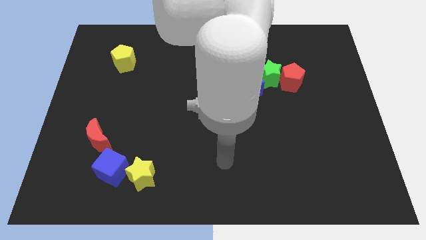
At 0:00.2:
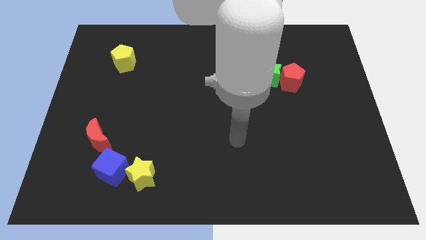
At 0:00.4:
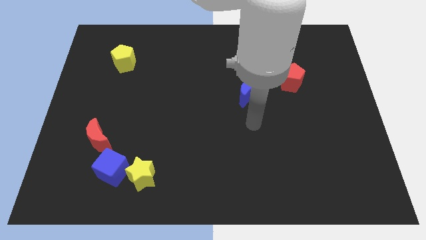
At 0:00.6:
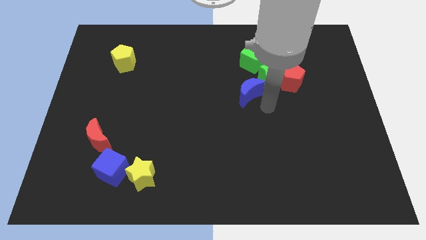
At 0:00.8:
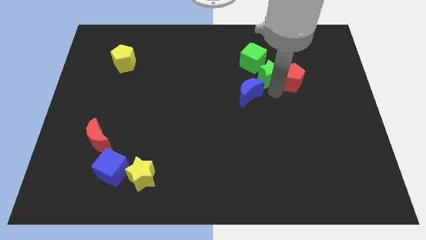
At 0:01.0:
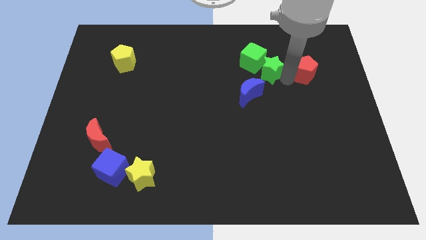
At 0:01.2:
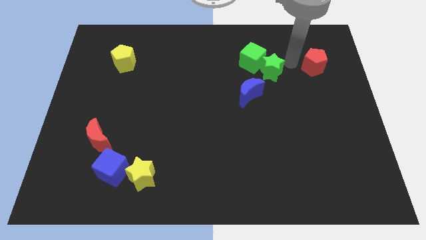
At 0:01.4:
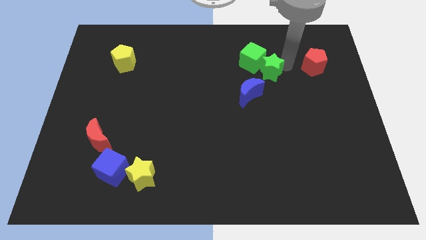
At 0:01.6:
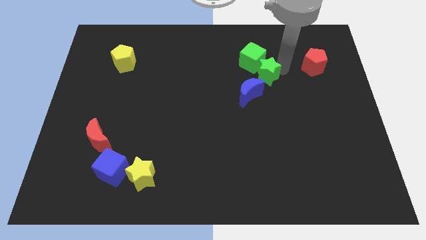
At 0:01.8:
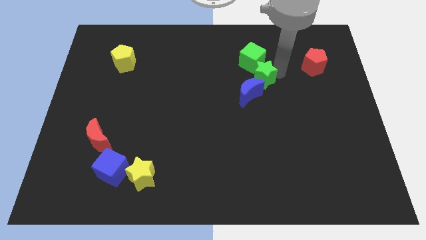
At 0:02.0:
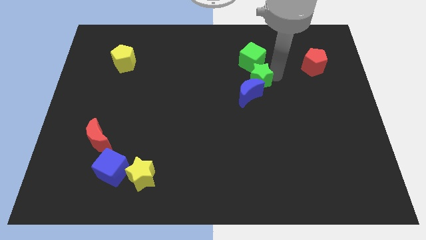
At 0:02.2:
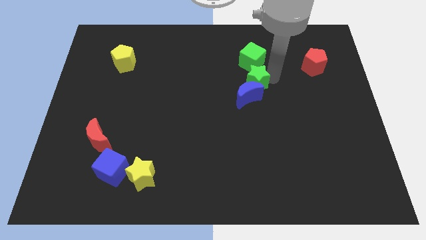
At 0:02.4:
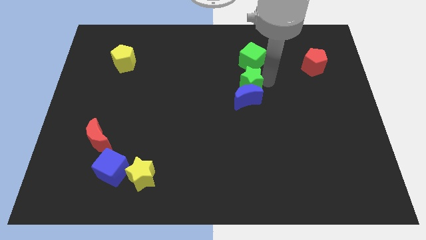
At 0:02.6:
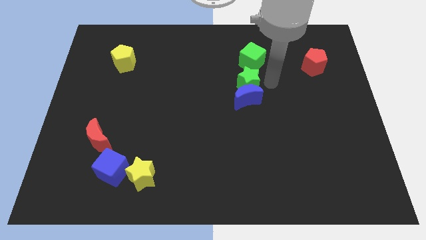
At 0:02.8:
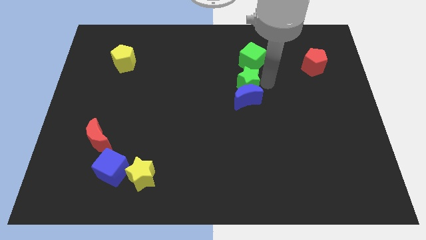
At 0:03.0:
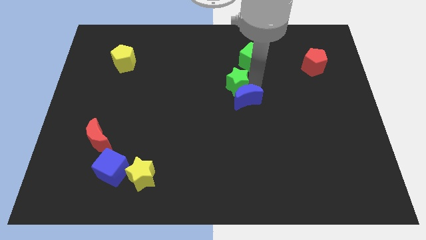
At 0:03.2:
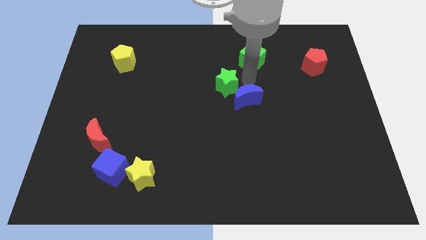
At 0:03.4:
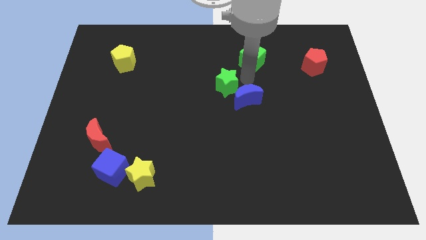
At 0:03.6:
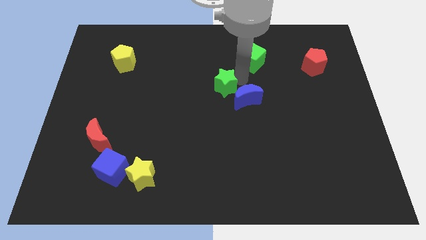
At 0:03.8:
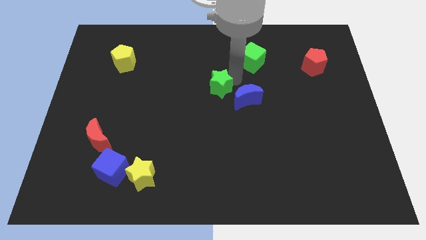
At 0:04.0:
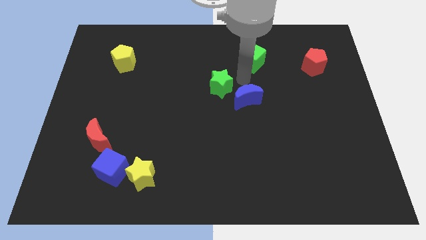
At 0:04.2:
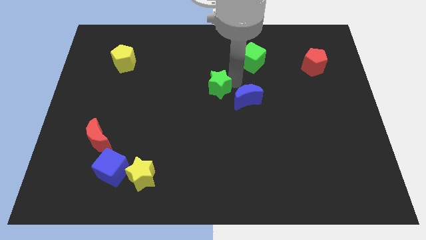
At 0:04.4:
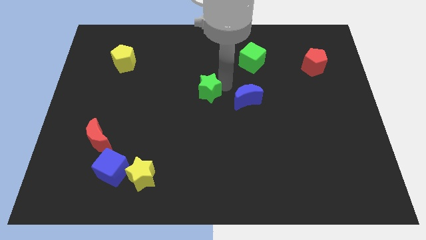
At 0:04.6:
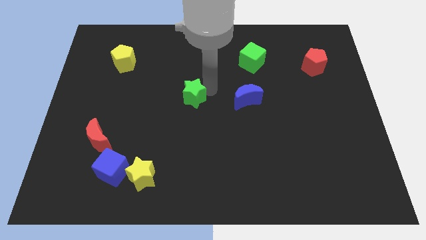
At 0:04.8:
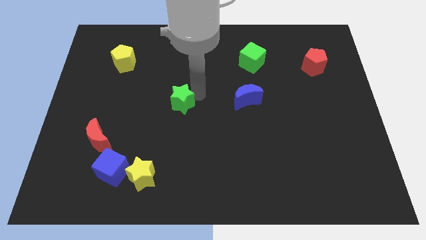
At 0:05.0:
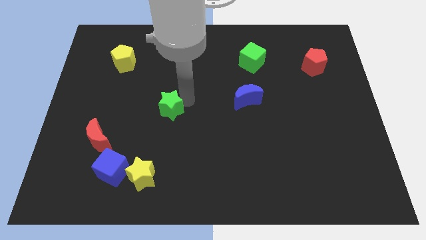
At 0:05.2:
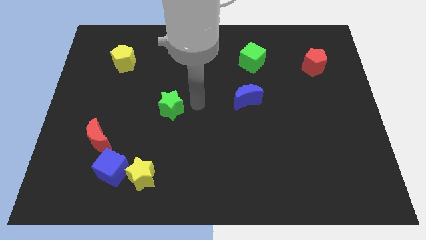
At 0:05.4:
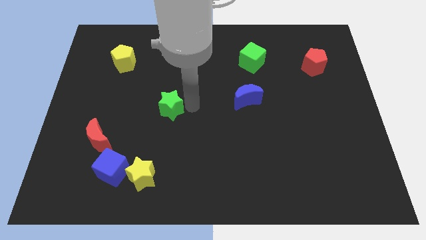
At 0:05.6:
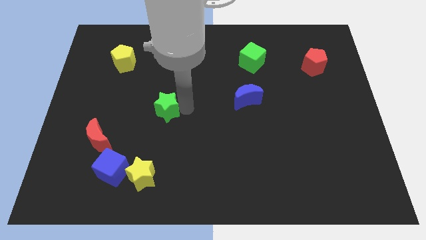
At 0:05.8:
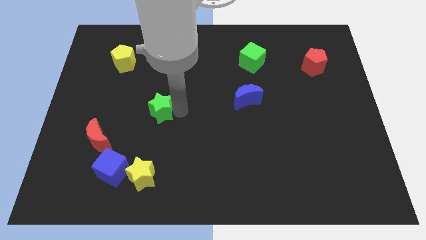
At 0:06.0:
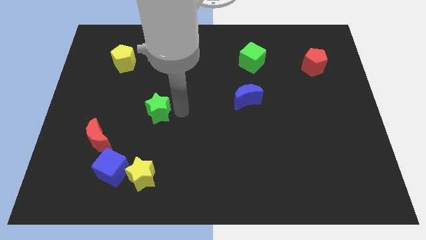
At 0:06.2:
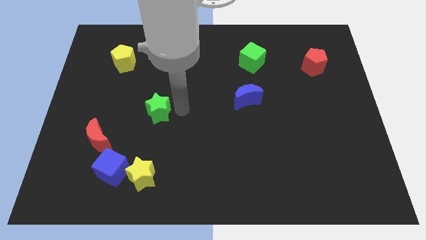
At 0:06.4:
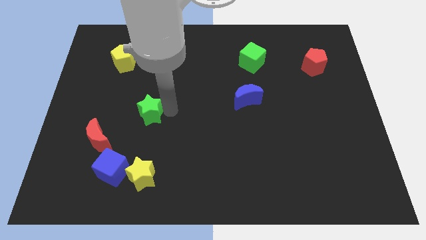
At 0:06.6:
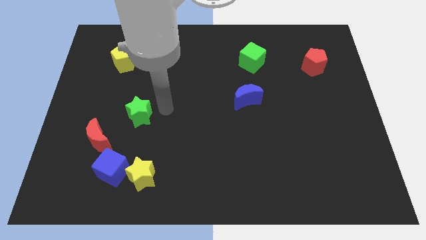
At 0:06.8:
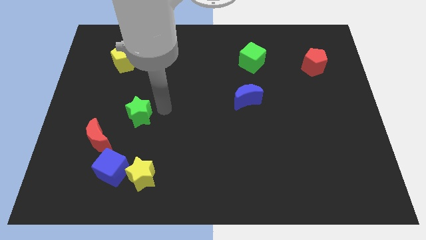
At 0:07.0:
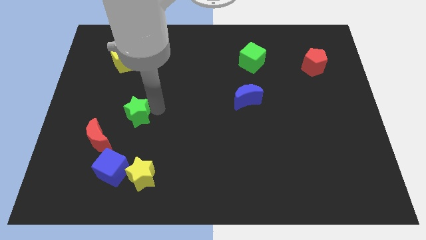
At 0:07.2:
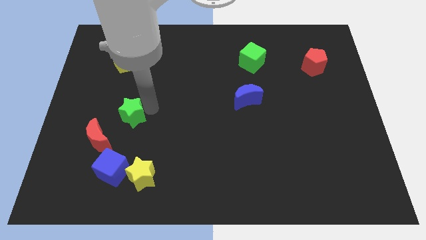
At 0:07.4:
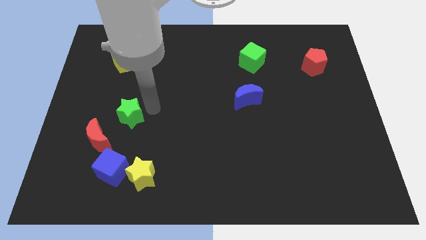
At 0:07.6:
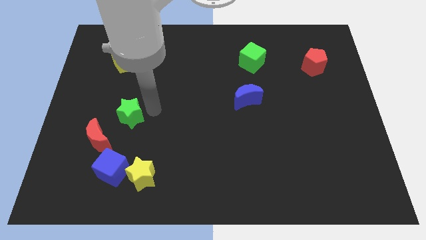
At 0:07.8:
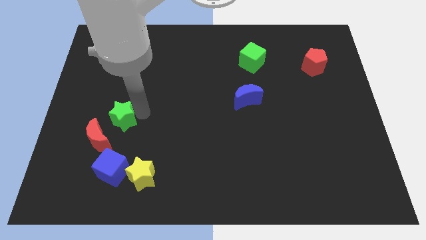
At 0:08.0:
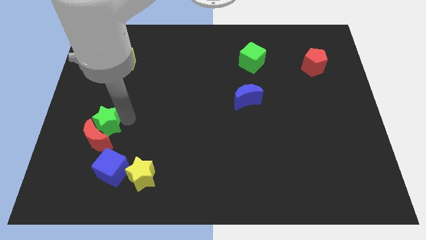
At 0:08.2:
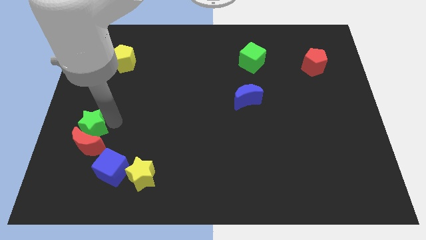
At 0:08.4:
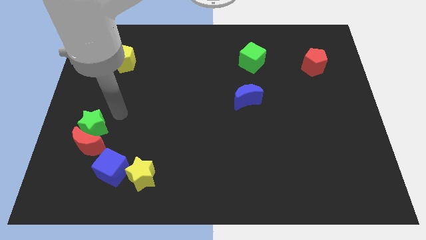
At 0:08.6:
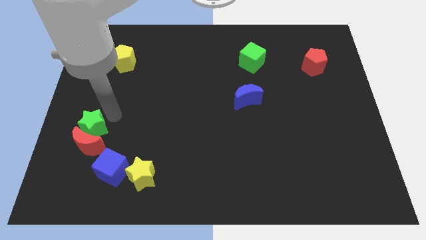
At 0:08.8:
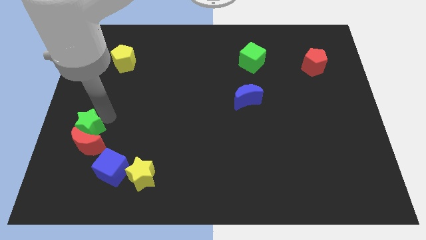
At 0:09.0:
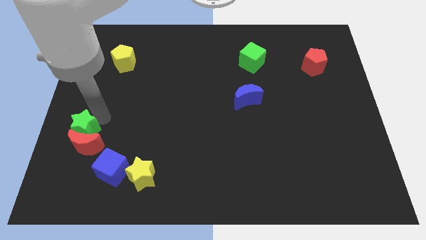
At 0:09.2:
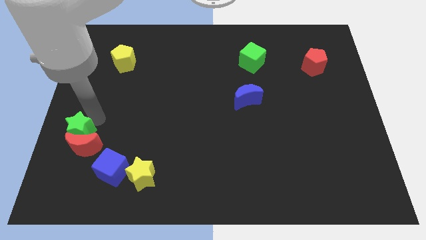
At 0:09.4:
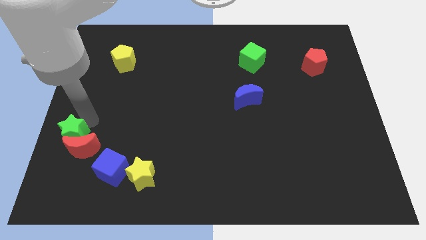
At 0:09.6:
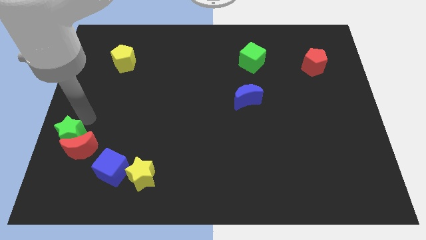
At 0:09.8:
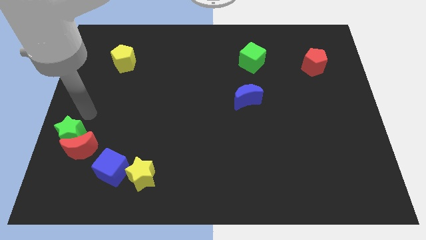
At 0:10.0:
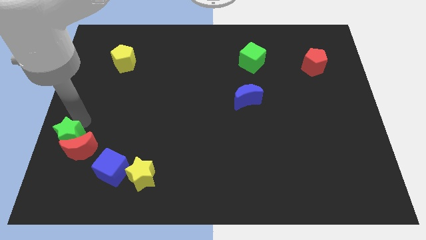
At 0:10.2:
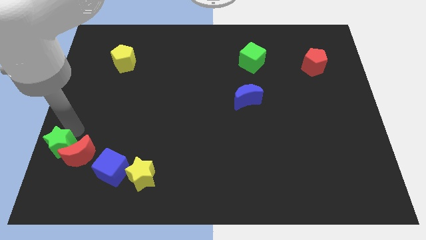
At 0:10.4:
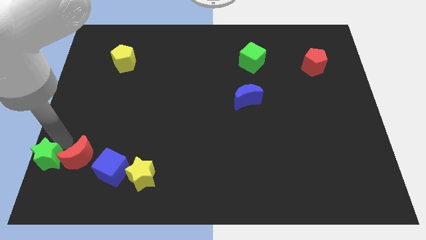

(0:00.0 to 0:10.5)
put the green star to the bottom left of the board

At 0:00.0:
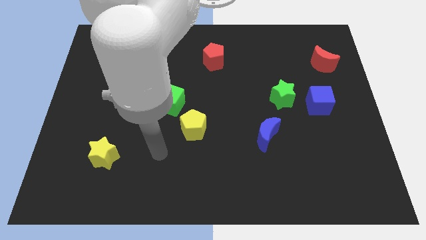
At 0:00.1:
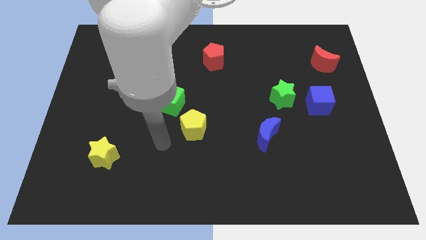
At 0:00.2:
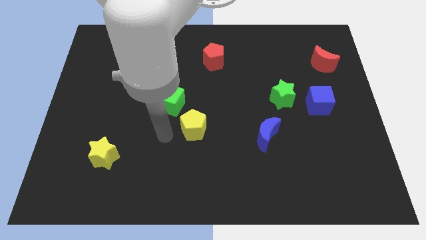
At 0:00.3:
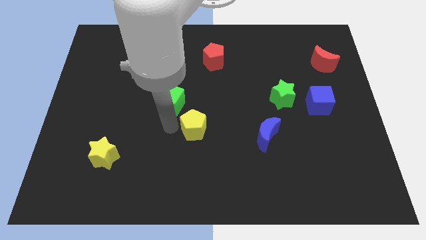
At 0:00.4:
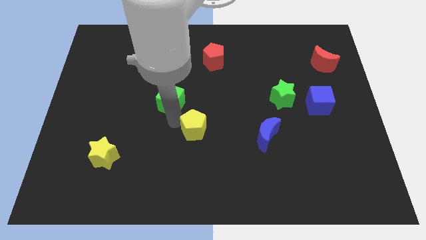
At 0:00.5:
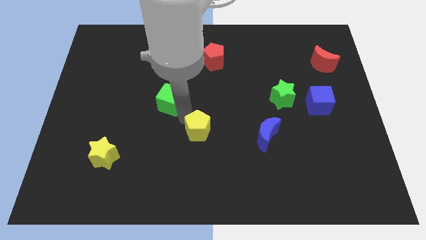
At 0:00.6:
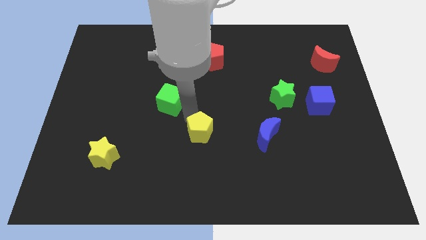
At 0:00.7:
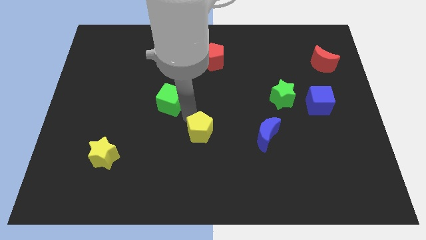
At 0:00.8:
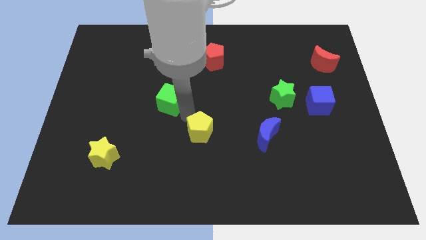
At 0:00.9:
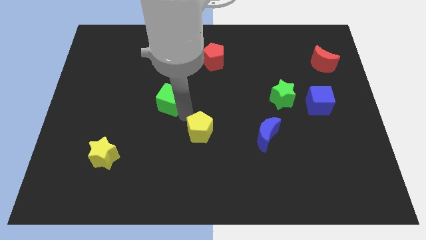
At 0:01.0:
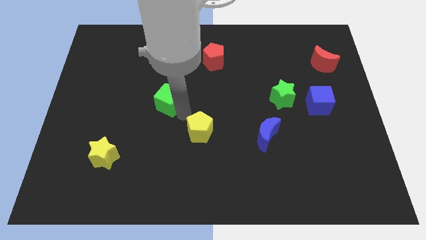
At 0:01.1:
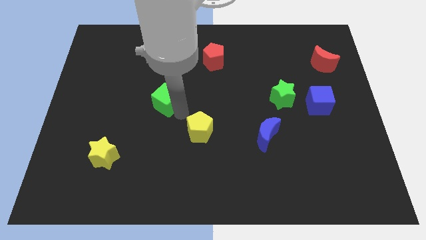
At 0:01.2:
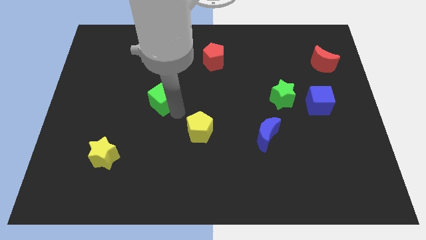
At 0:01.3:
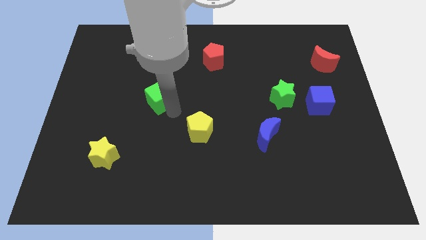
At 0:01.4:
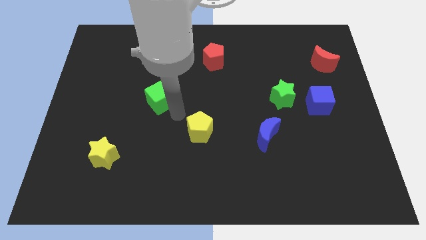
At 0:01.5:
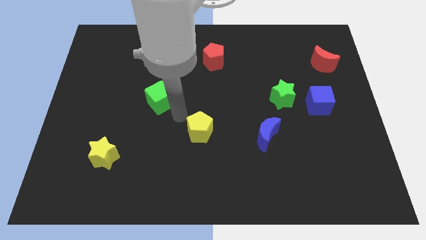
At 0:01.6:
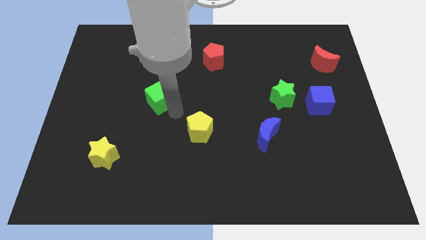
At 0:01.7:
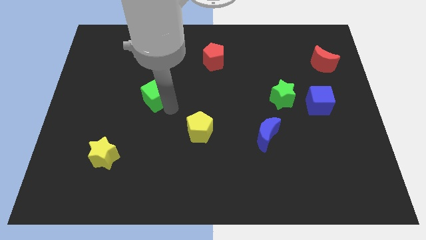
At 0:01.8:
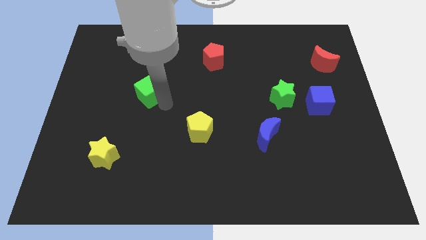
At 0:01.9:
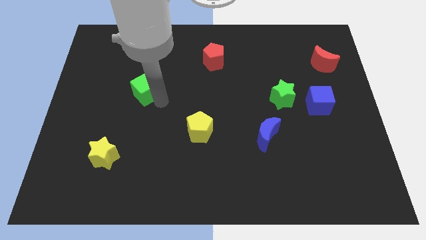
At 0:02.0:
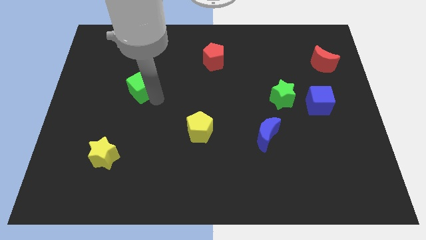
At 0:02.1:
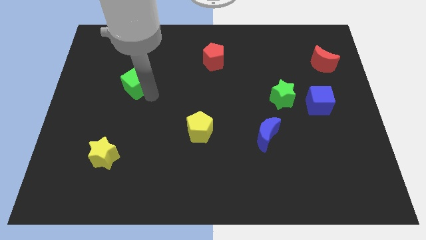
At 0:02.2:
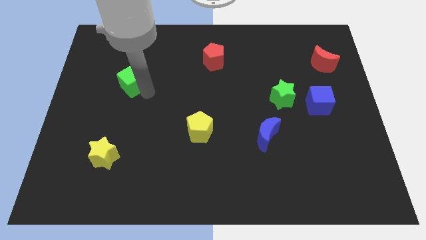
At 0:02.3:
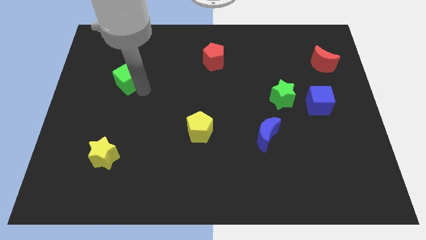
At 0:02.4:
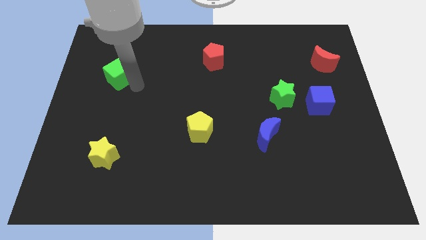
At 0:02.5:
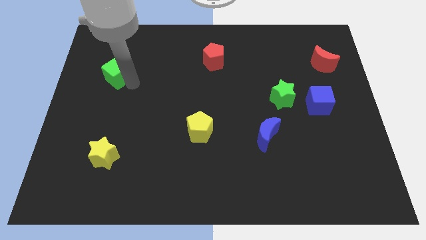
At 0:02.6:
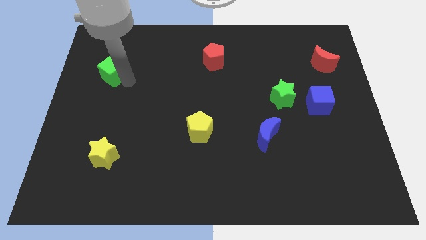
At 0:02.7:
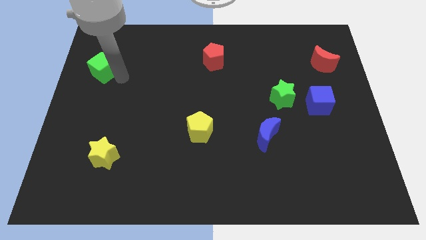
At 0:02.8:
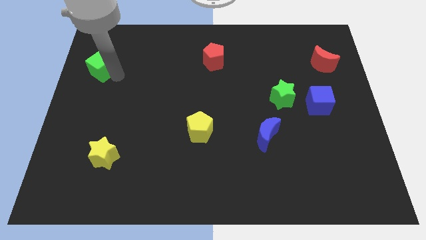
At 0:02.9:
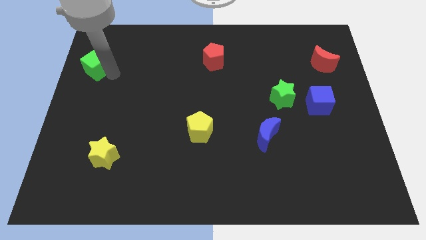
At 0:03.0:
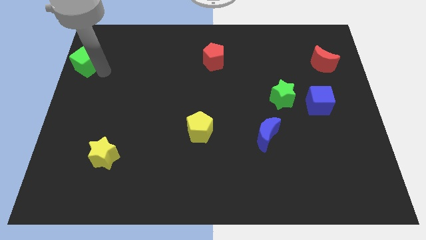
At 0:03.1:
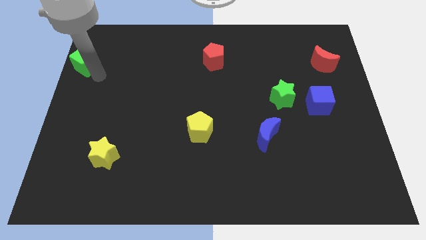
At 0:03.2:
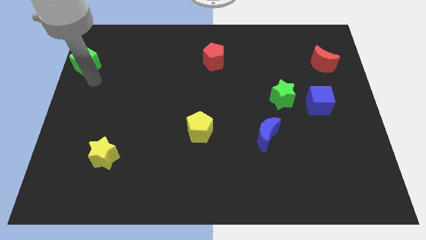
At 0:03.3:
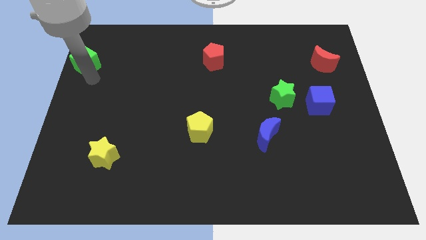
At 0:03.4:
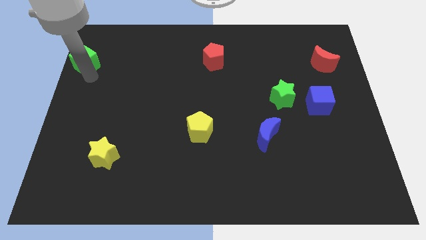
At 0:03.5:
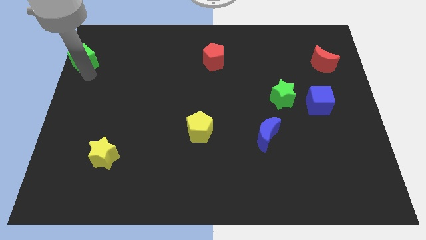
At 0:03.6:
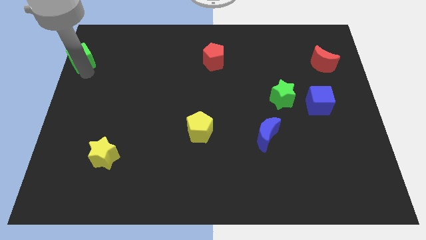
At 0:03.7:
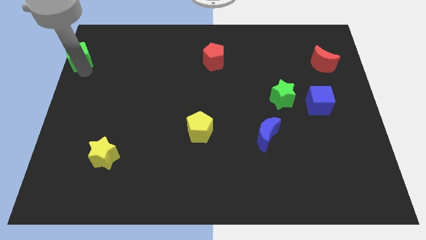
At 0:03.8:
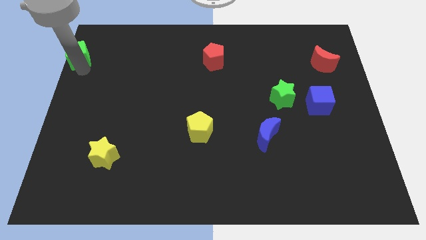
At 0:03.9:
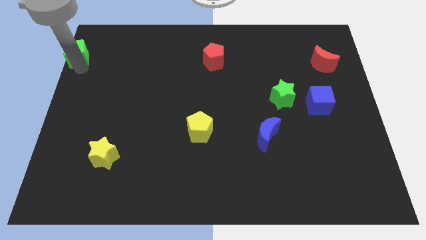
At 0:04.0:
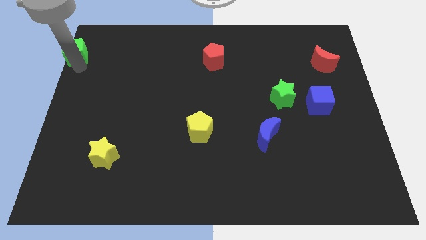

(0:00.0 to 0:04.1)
move the green cube to the top left corner
